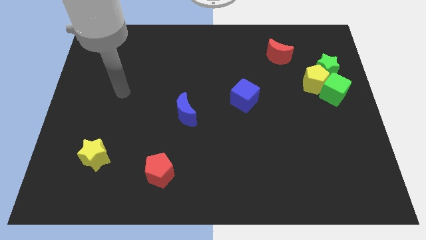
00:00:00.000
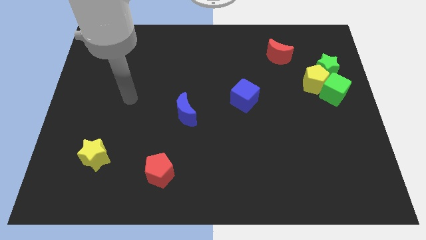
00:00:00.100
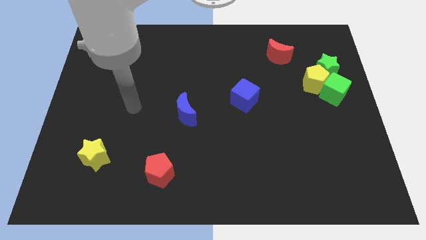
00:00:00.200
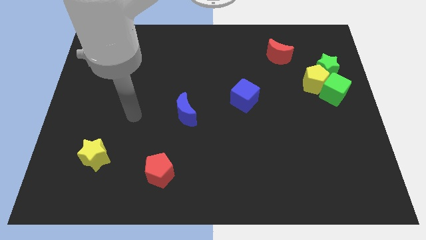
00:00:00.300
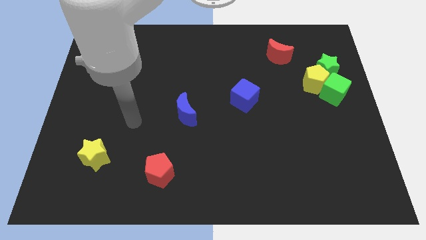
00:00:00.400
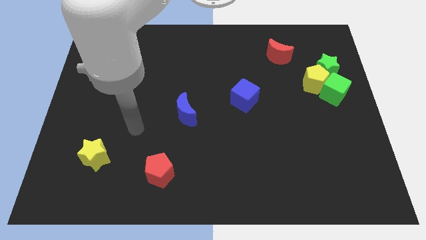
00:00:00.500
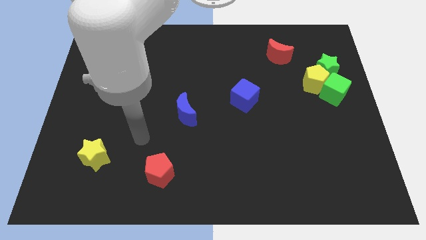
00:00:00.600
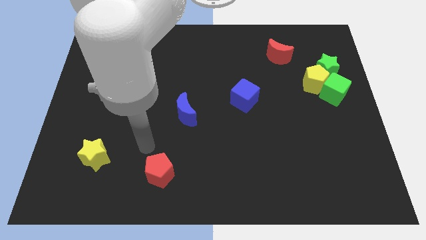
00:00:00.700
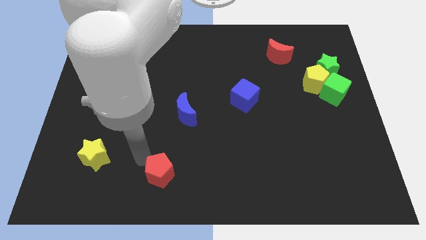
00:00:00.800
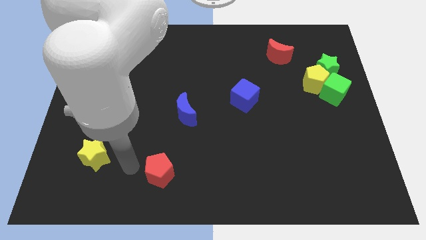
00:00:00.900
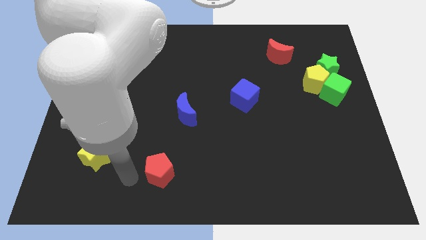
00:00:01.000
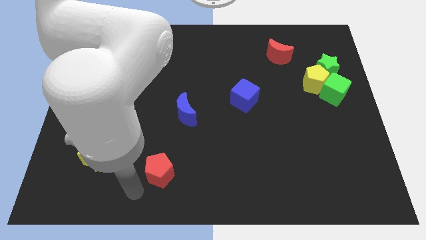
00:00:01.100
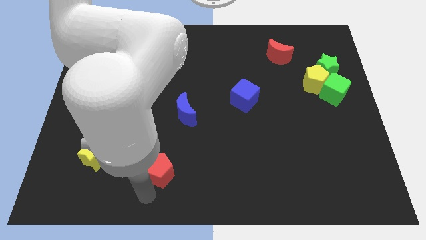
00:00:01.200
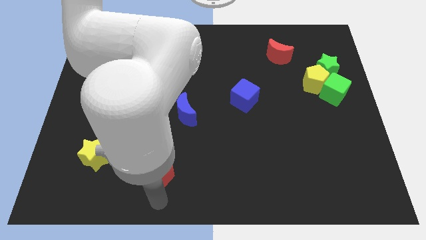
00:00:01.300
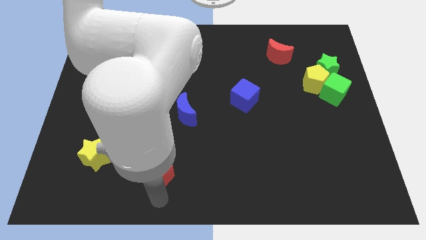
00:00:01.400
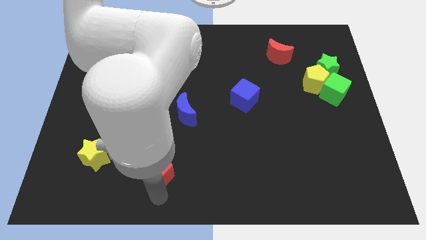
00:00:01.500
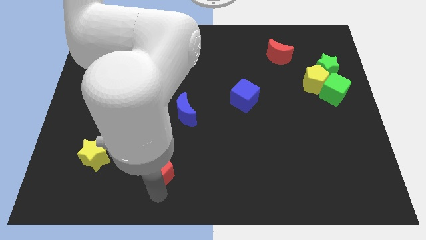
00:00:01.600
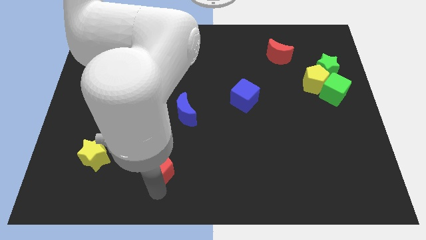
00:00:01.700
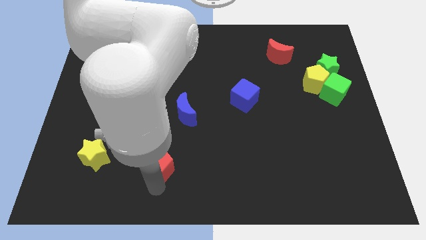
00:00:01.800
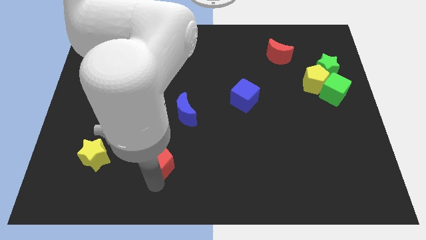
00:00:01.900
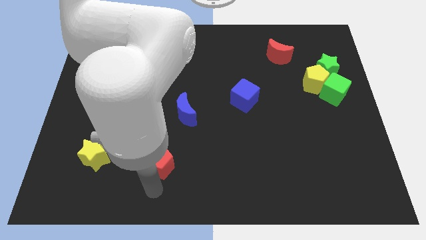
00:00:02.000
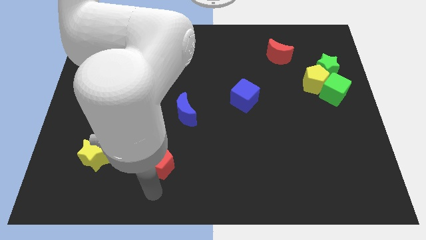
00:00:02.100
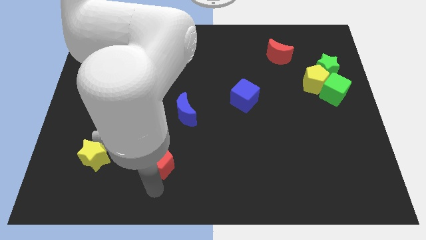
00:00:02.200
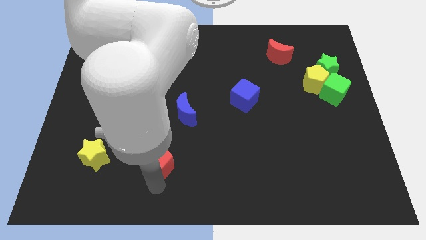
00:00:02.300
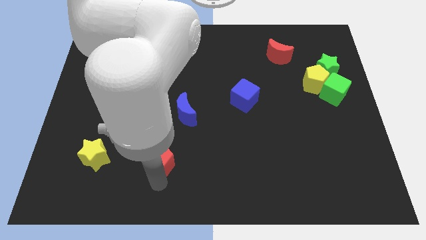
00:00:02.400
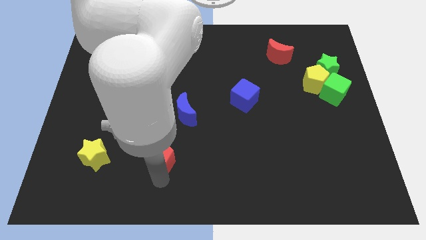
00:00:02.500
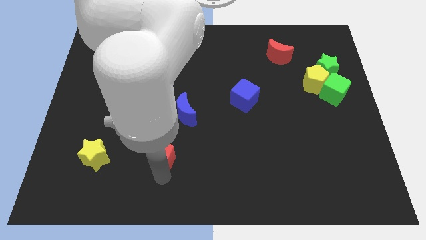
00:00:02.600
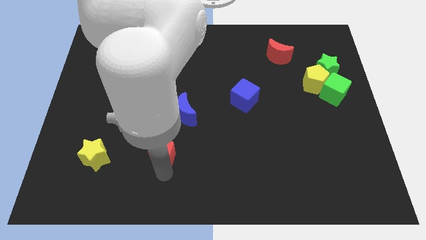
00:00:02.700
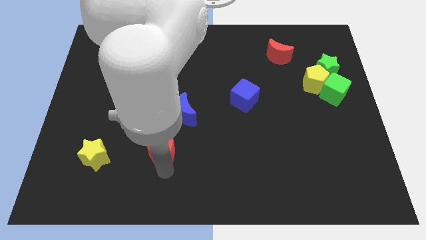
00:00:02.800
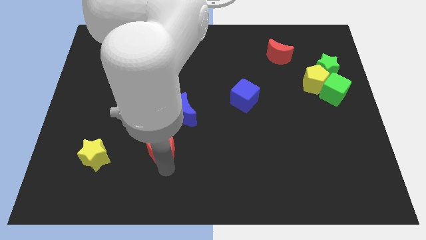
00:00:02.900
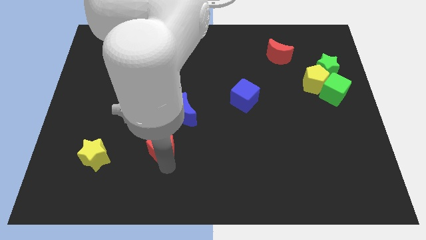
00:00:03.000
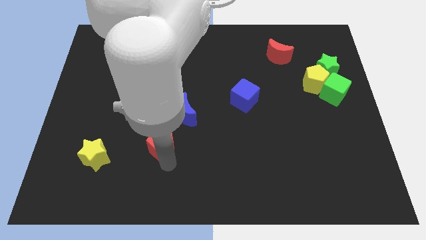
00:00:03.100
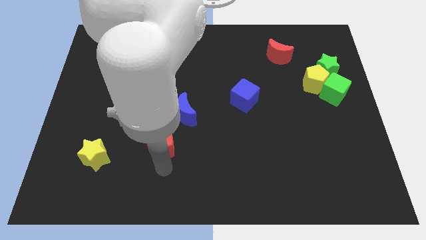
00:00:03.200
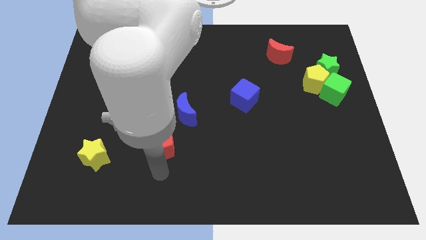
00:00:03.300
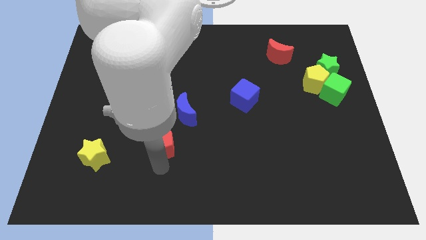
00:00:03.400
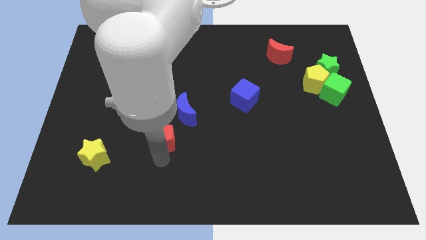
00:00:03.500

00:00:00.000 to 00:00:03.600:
move the red pentagon slightly upwards

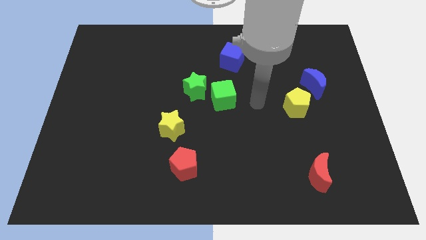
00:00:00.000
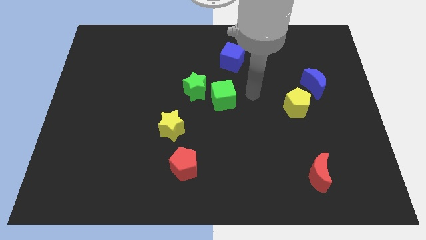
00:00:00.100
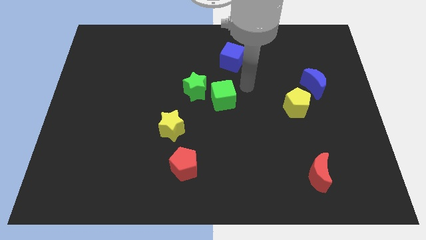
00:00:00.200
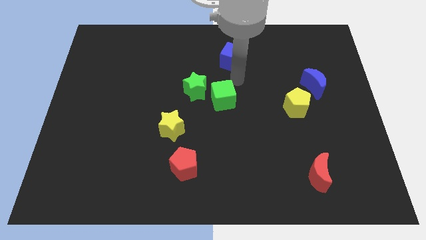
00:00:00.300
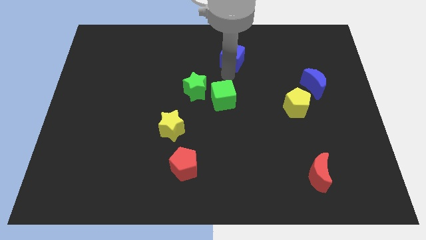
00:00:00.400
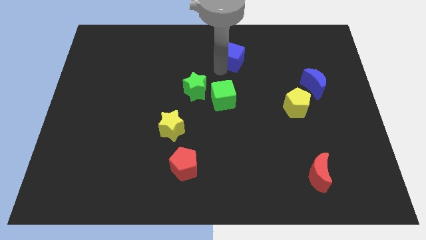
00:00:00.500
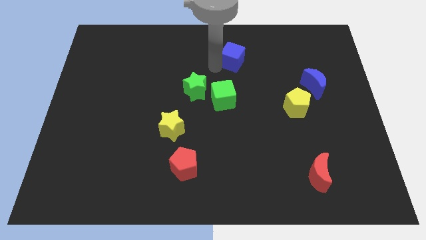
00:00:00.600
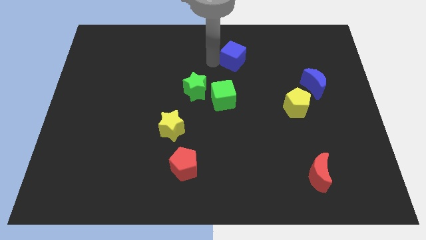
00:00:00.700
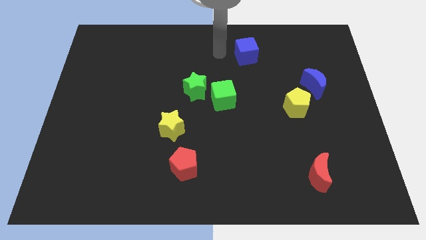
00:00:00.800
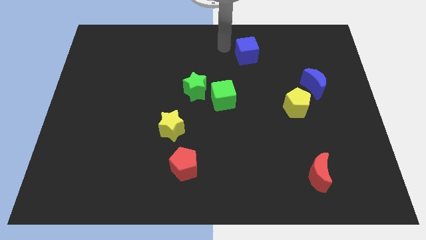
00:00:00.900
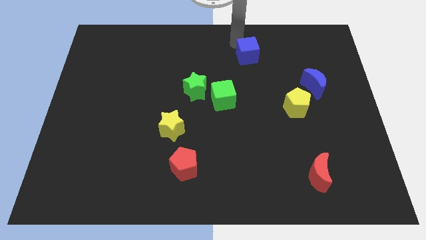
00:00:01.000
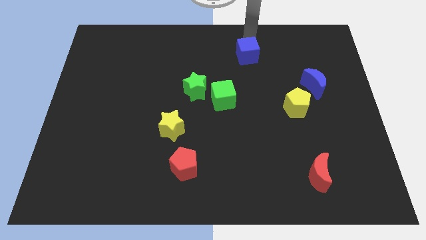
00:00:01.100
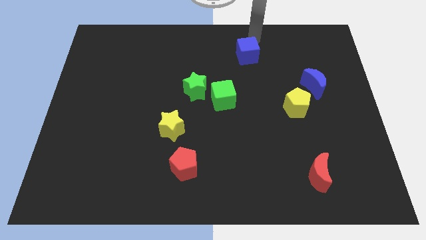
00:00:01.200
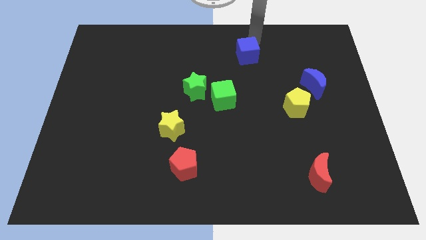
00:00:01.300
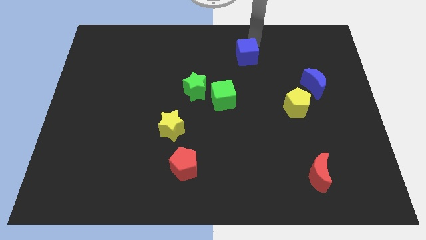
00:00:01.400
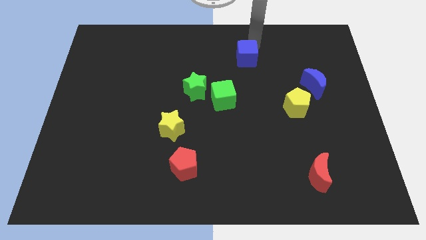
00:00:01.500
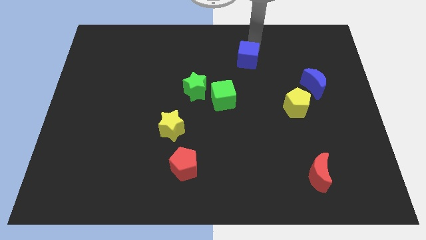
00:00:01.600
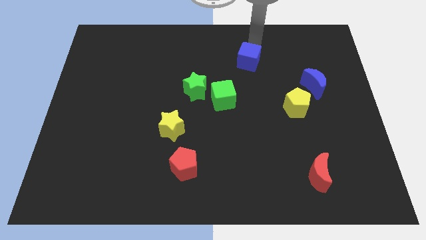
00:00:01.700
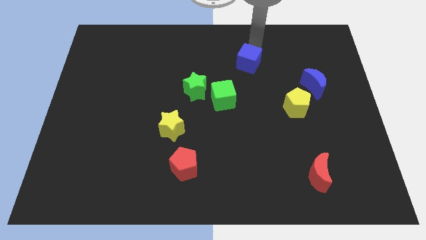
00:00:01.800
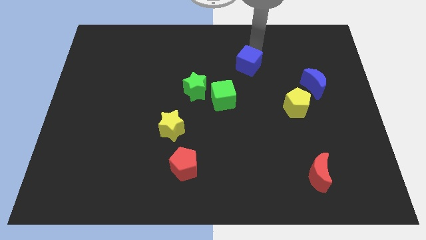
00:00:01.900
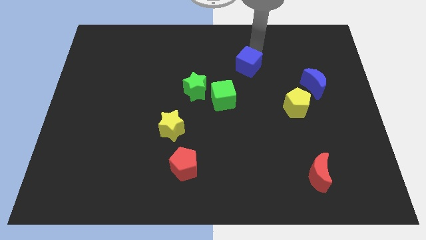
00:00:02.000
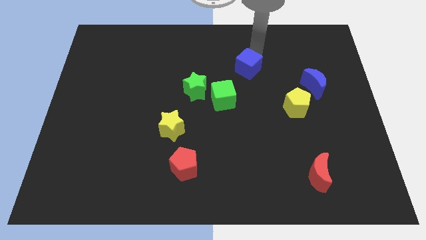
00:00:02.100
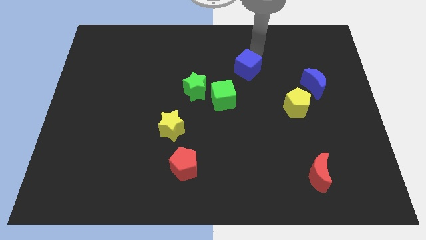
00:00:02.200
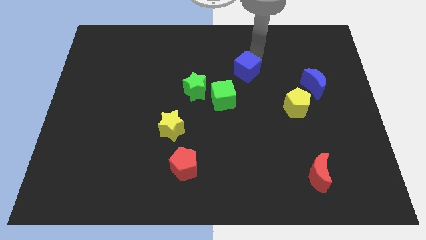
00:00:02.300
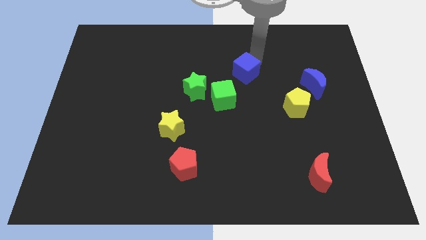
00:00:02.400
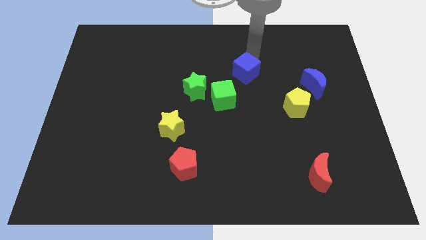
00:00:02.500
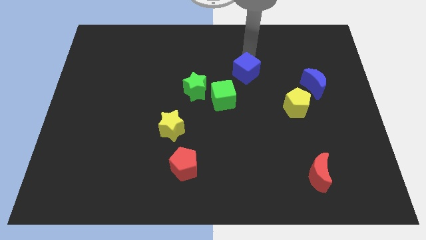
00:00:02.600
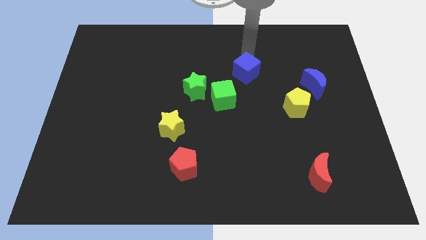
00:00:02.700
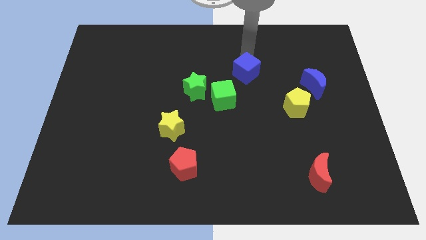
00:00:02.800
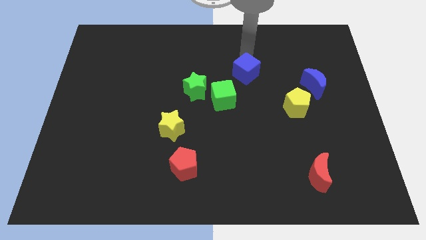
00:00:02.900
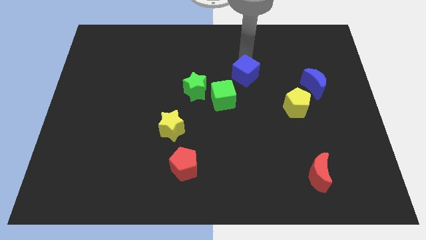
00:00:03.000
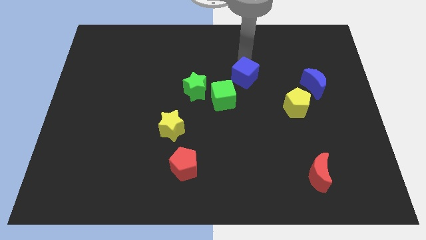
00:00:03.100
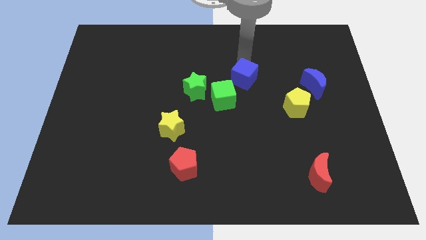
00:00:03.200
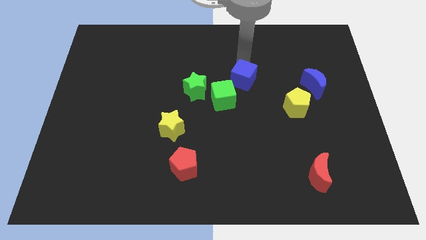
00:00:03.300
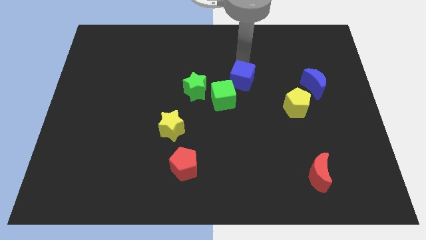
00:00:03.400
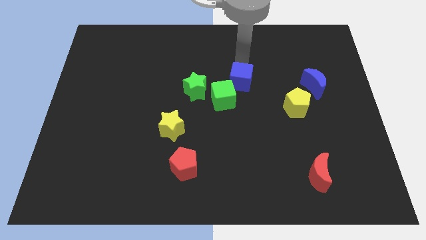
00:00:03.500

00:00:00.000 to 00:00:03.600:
push the blue cube down a little

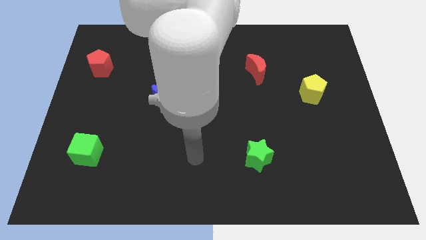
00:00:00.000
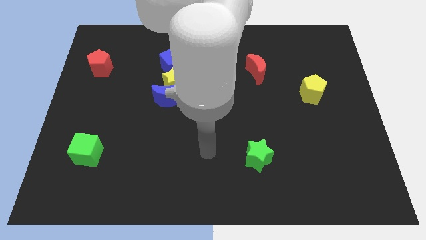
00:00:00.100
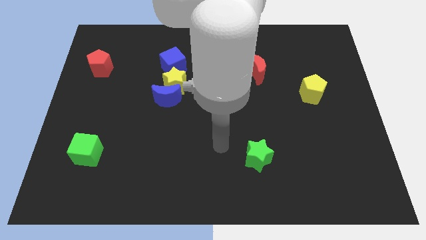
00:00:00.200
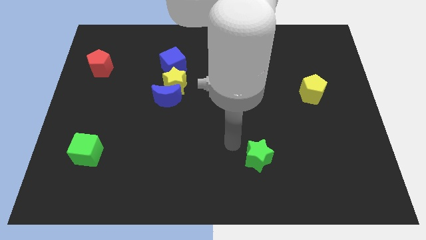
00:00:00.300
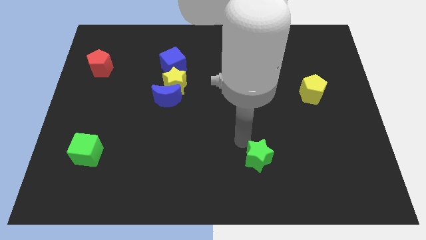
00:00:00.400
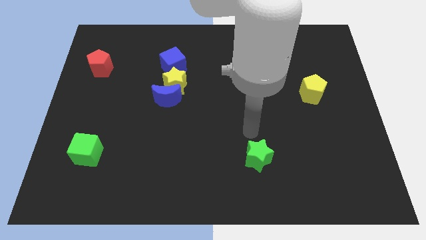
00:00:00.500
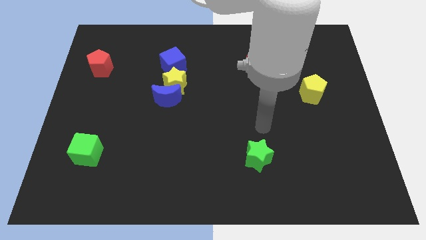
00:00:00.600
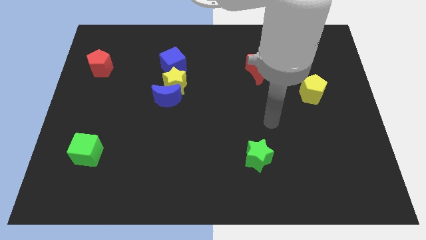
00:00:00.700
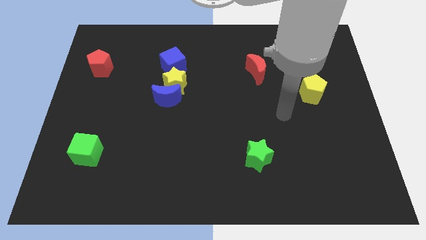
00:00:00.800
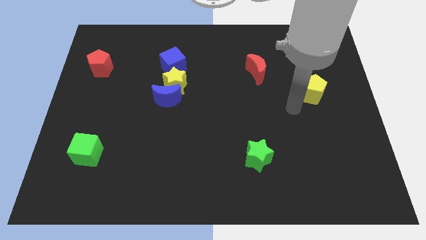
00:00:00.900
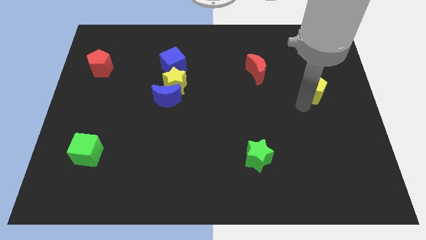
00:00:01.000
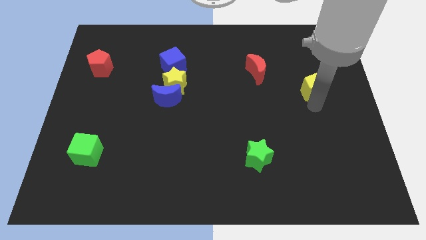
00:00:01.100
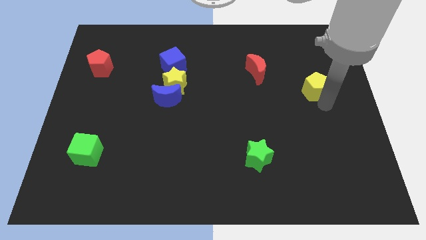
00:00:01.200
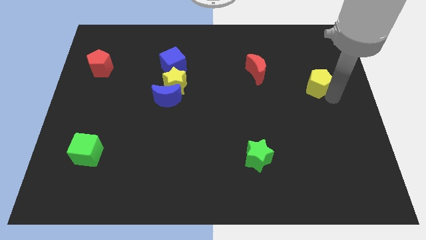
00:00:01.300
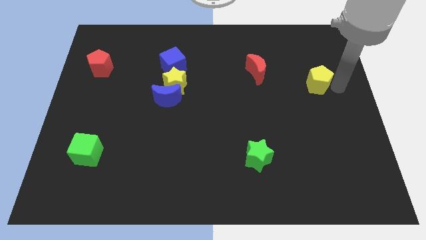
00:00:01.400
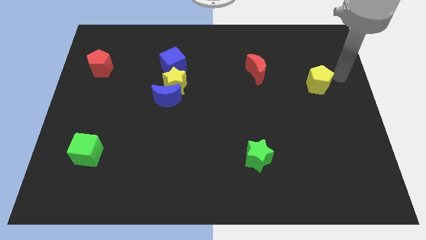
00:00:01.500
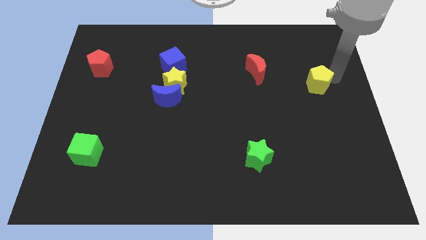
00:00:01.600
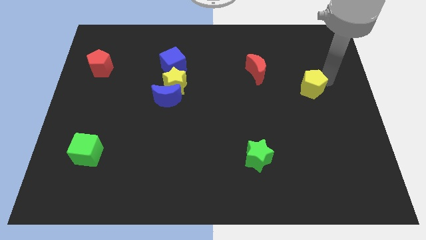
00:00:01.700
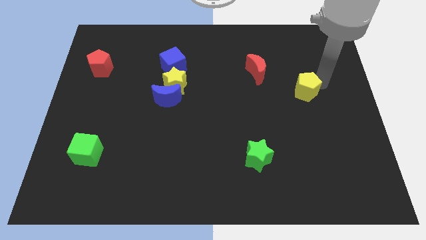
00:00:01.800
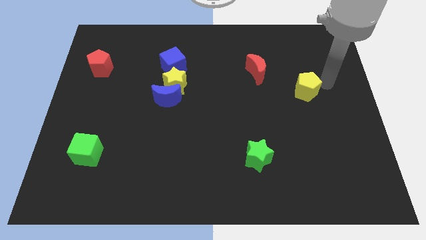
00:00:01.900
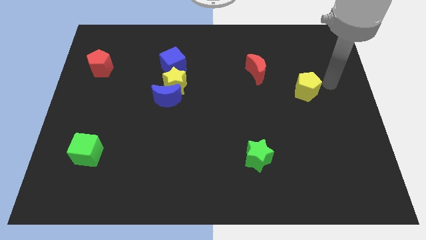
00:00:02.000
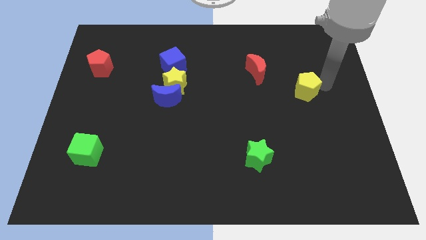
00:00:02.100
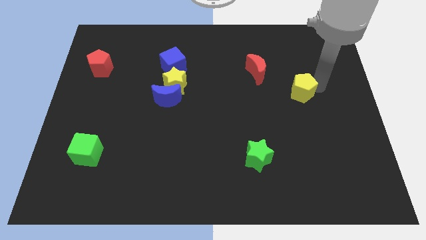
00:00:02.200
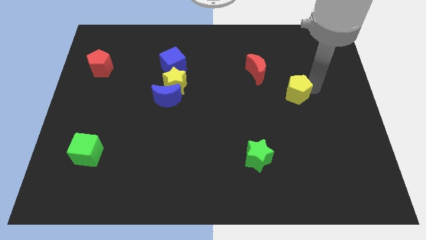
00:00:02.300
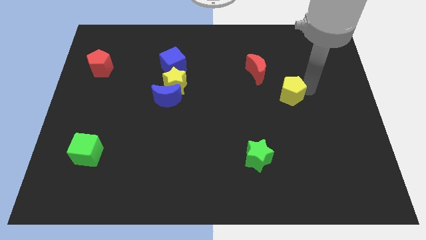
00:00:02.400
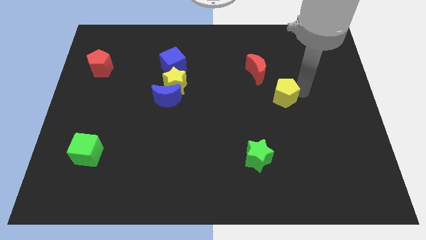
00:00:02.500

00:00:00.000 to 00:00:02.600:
push the yellow pentagon to the left a bit
